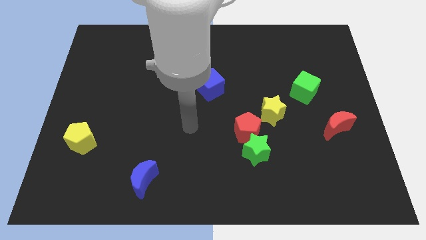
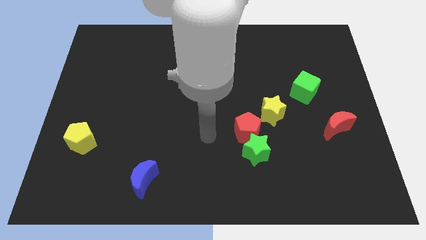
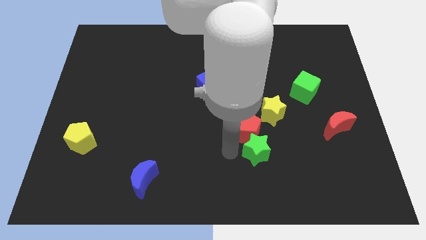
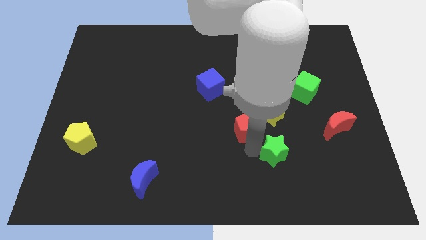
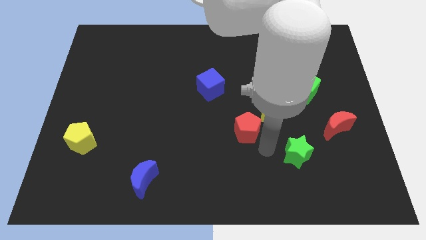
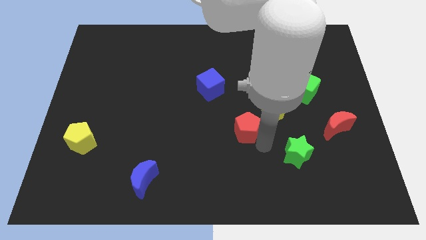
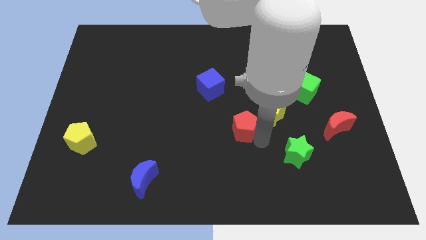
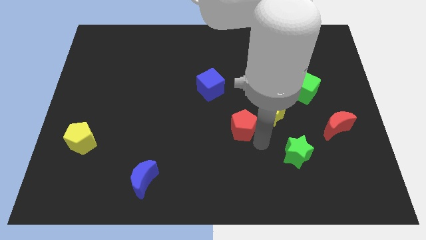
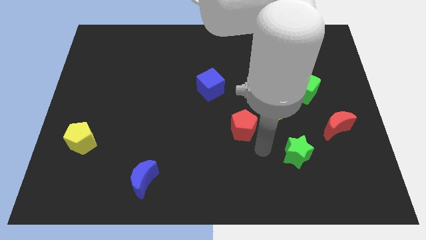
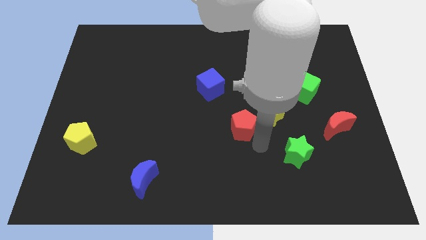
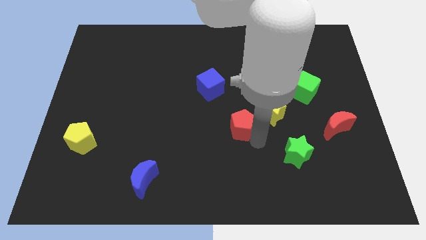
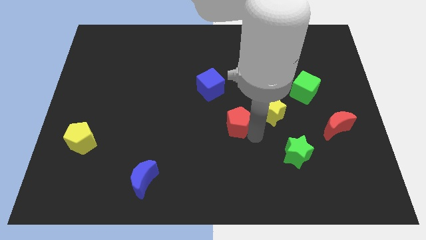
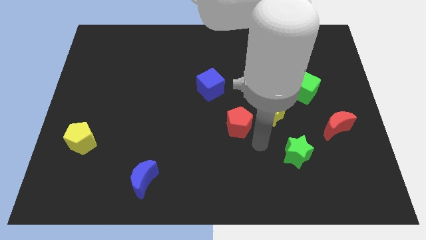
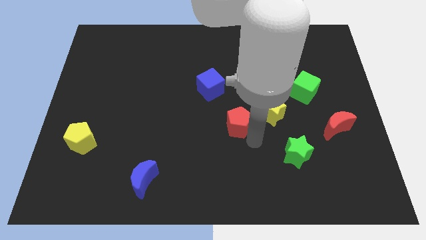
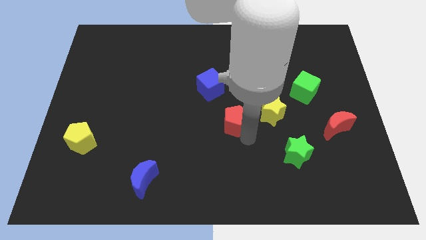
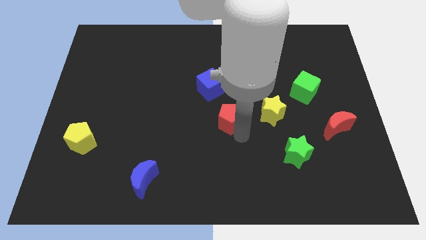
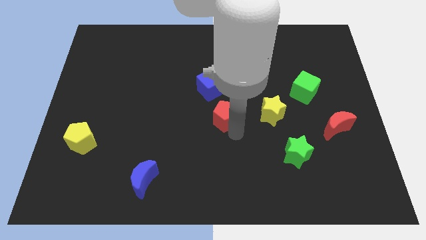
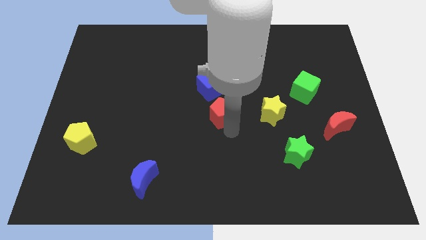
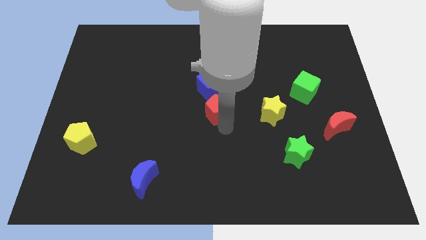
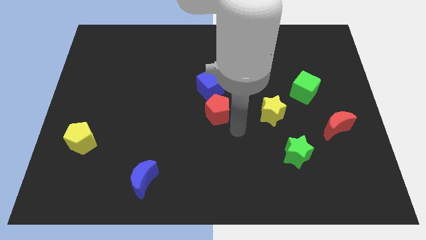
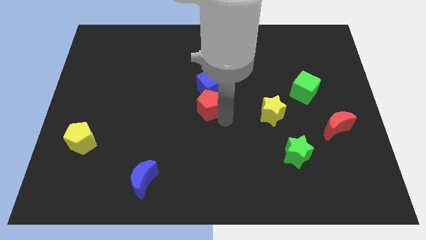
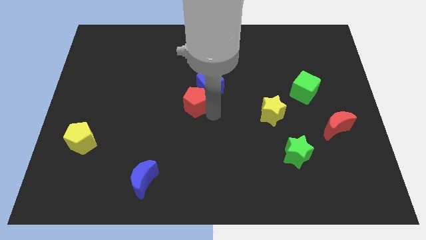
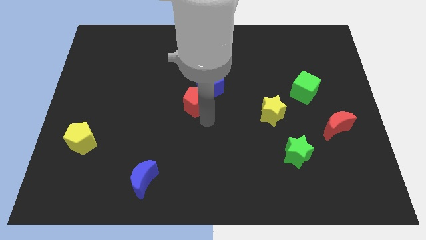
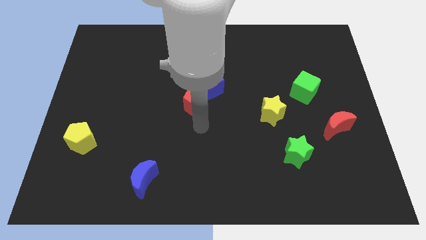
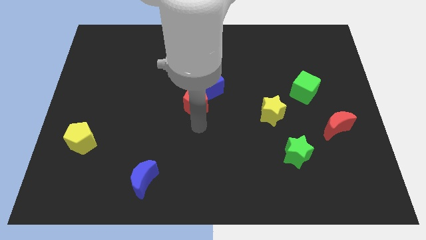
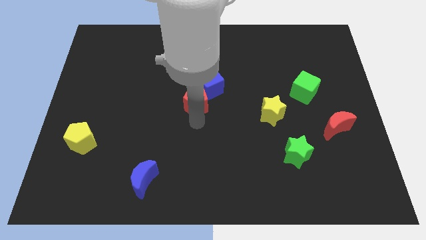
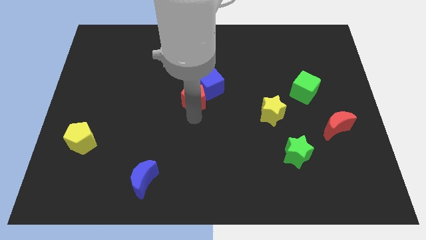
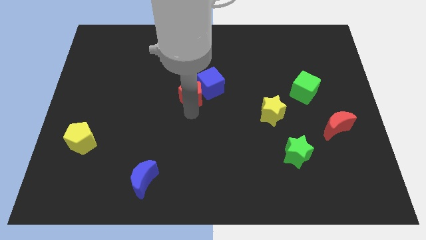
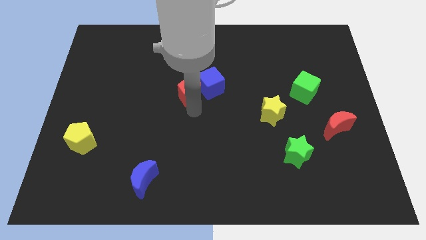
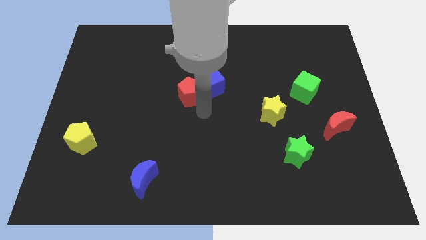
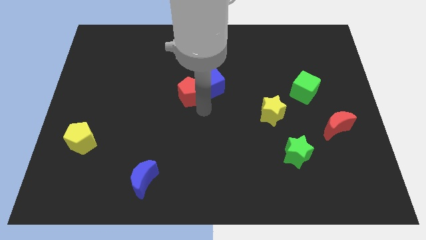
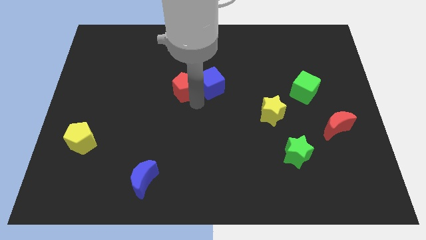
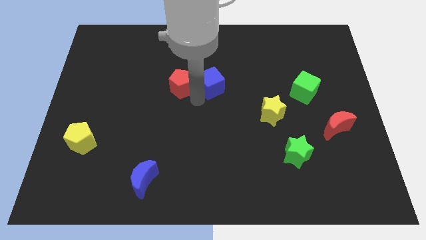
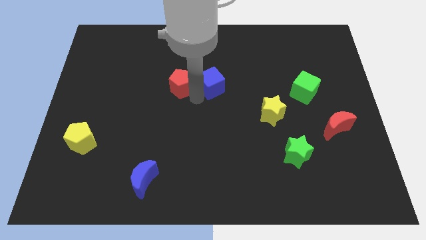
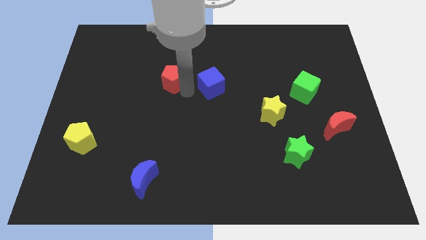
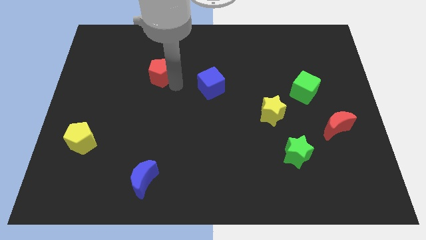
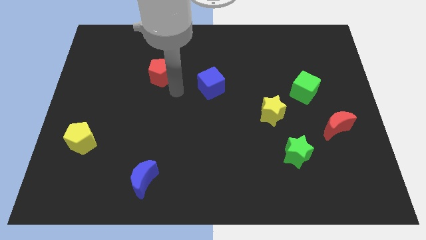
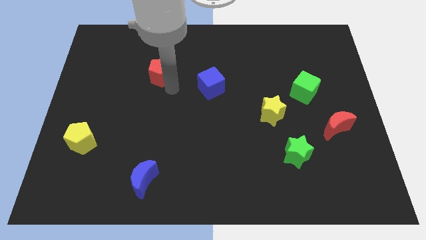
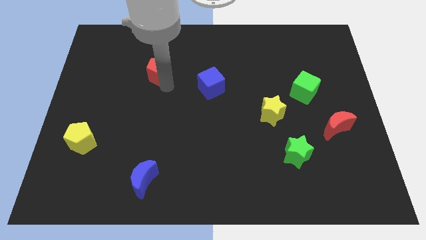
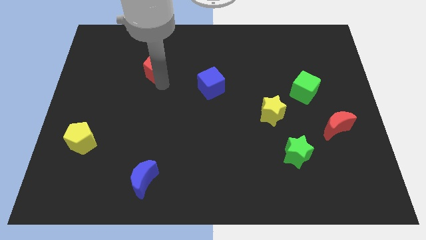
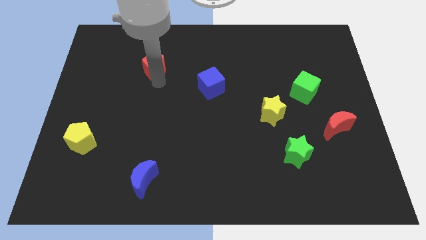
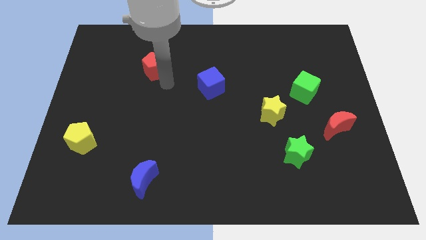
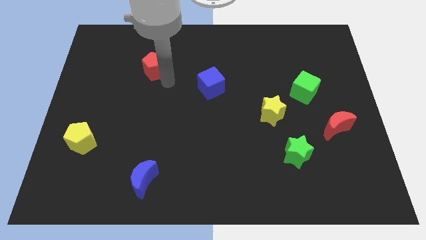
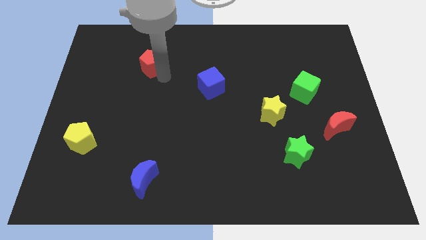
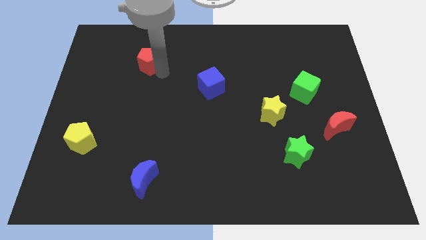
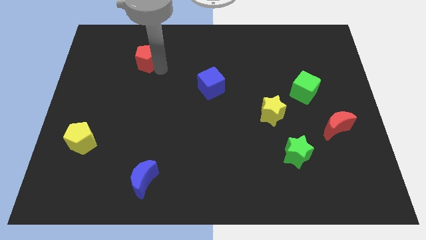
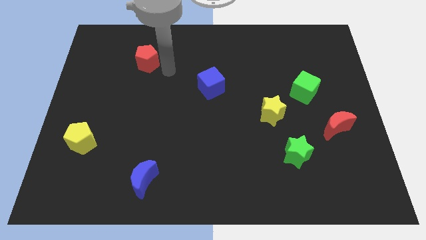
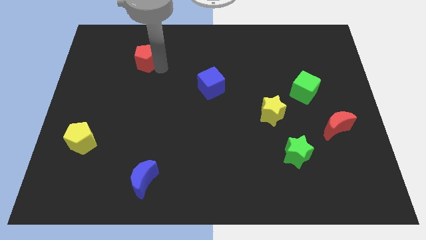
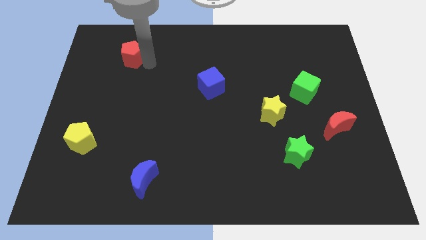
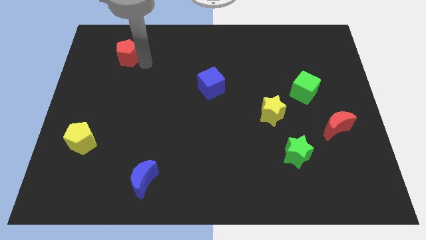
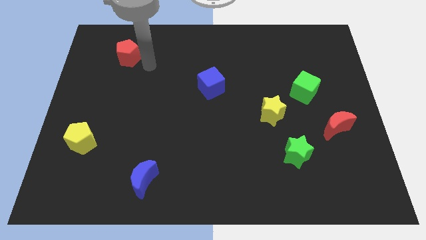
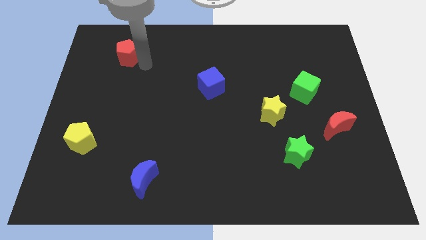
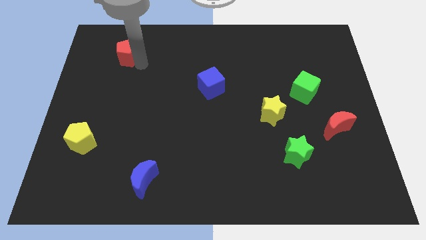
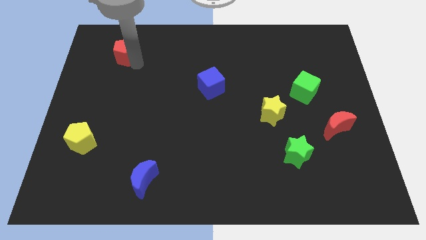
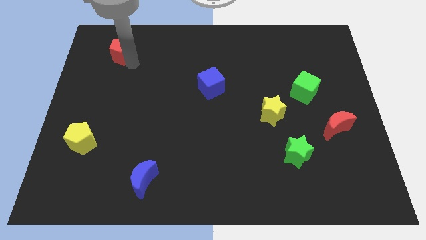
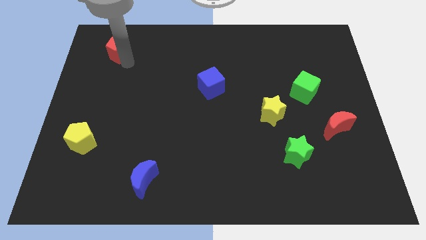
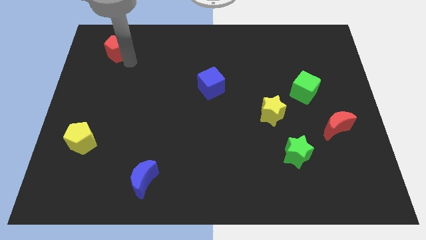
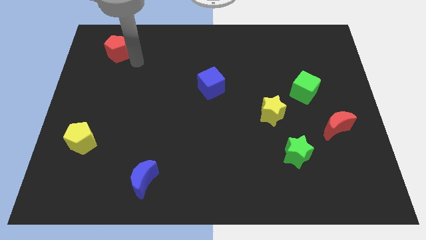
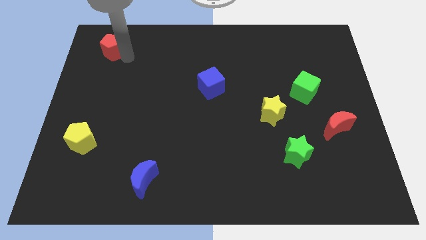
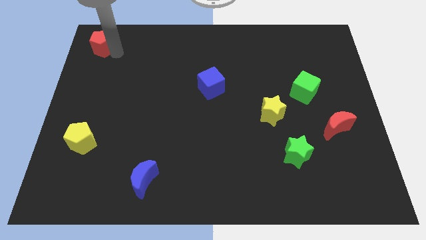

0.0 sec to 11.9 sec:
push the red pentagon to the top left

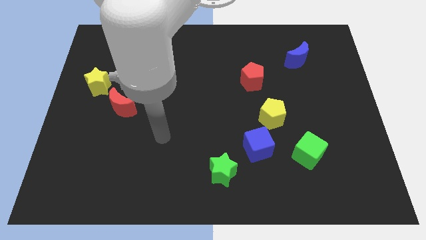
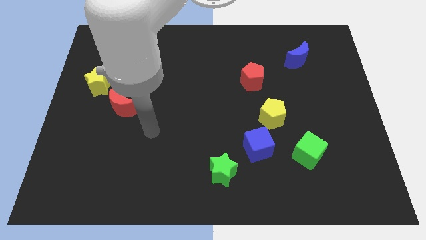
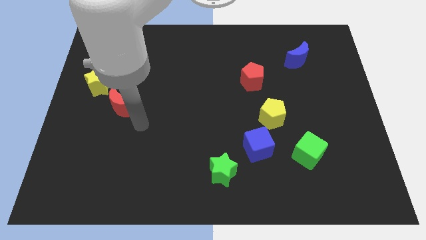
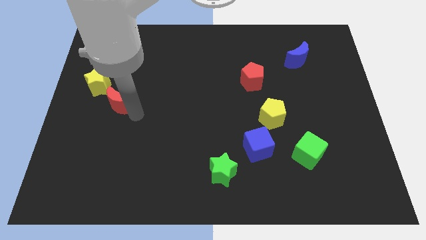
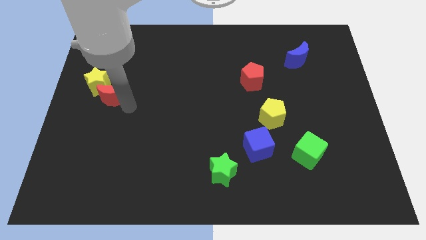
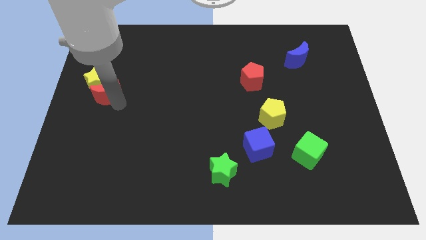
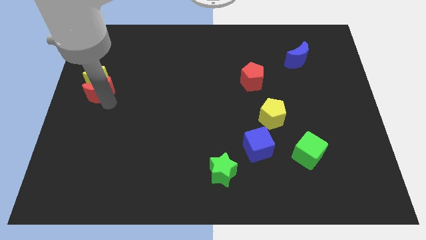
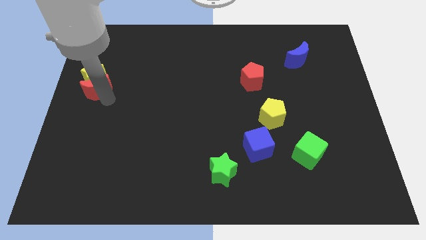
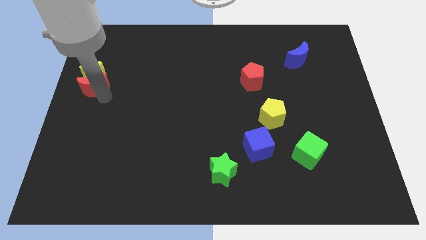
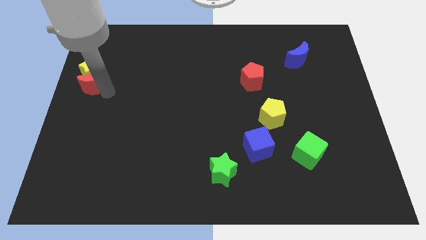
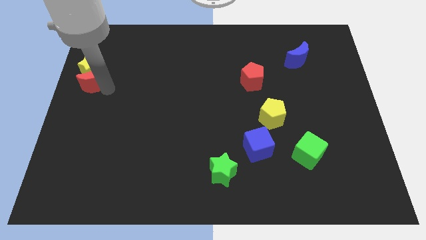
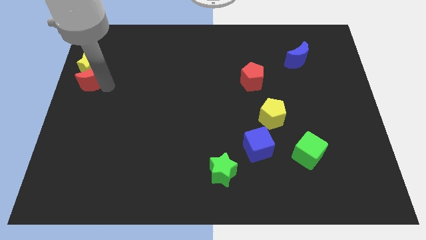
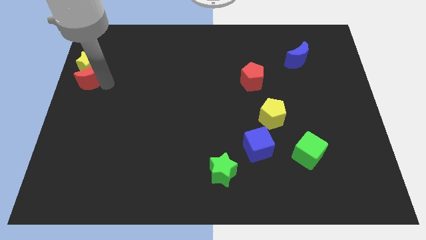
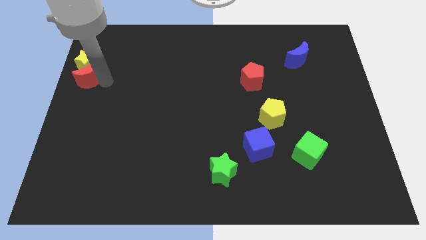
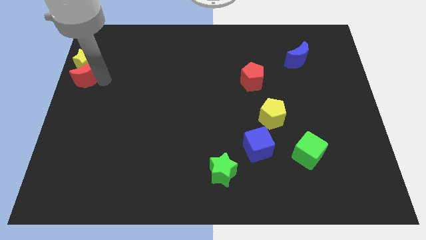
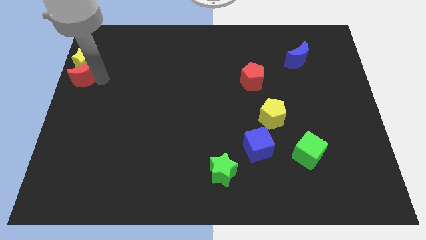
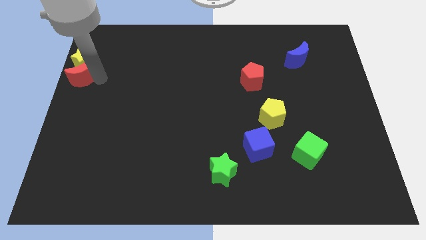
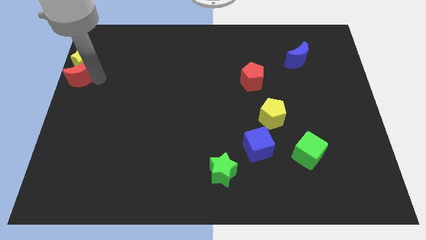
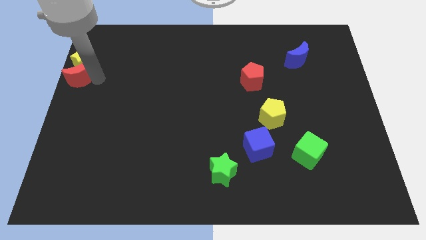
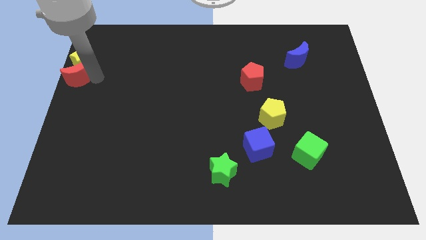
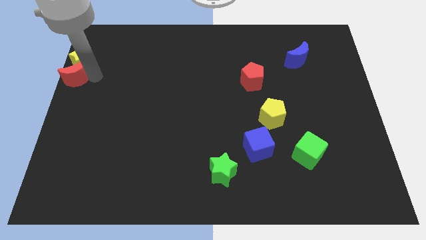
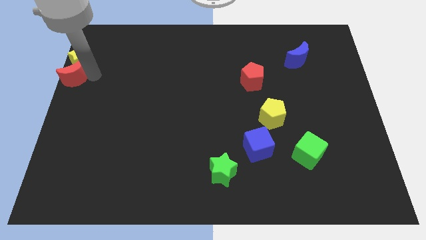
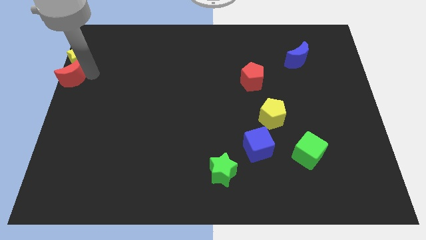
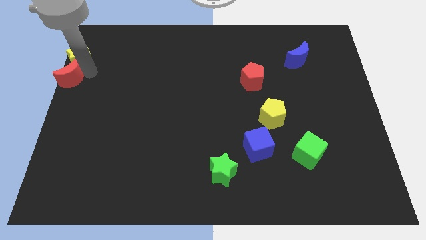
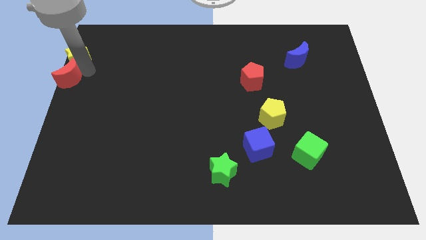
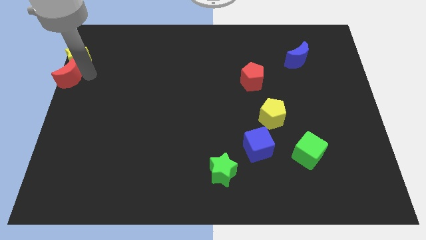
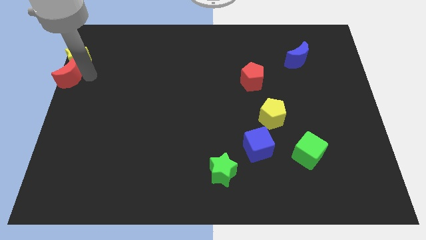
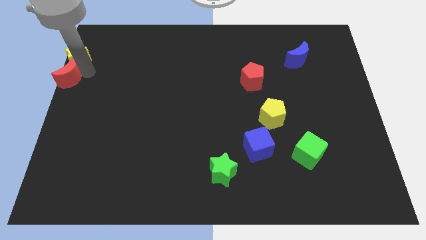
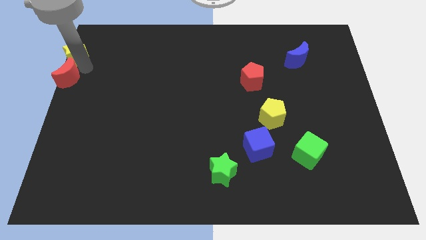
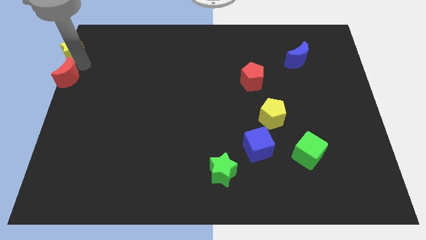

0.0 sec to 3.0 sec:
push the yellow star to the upper left corner
